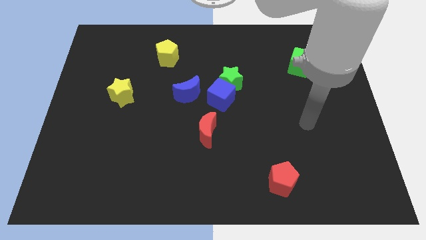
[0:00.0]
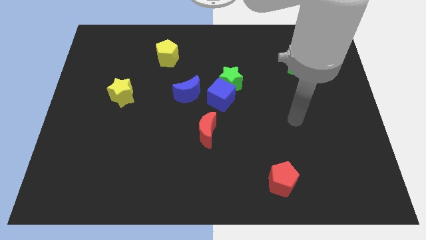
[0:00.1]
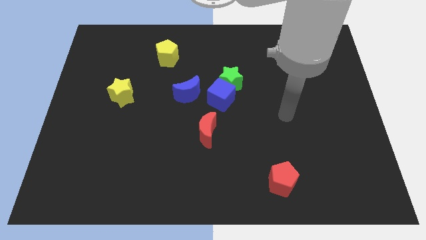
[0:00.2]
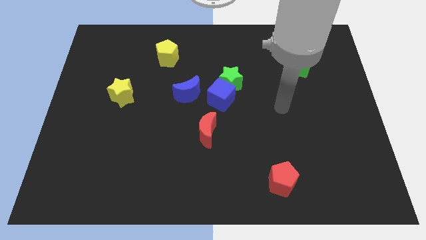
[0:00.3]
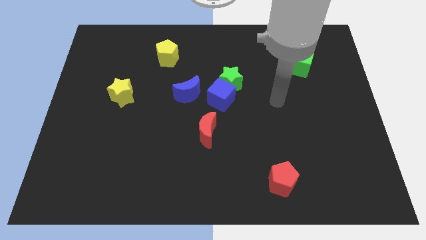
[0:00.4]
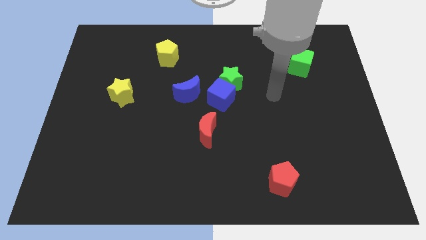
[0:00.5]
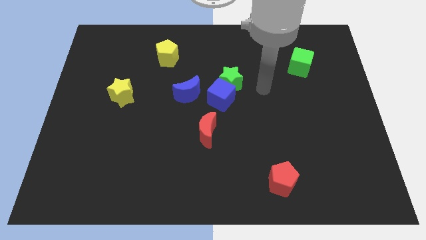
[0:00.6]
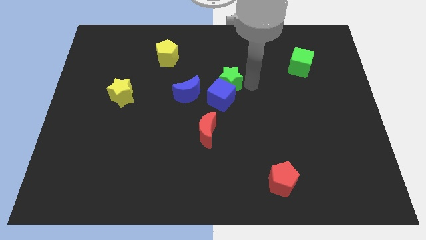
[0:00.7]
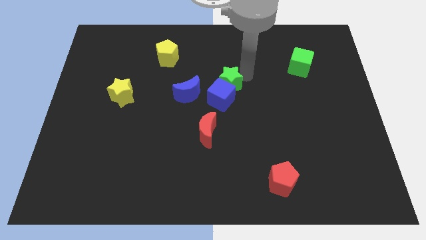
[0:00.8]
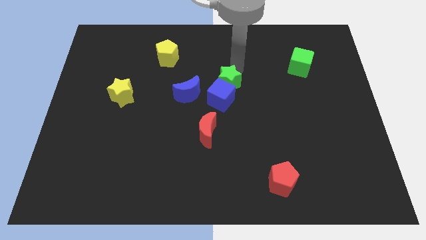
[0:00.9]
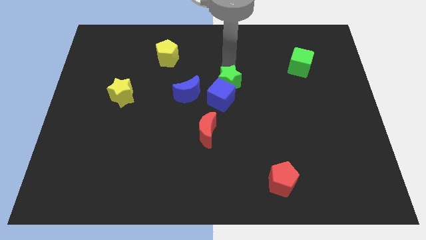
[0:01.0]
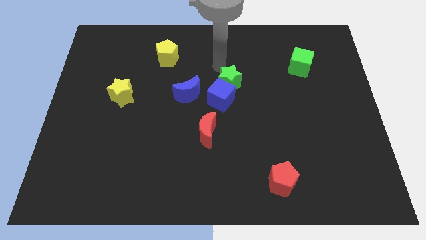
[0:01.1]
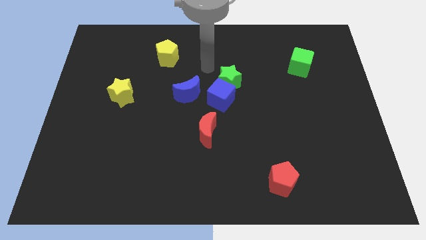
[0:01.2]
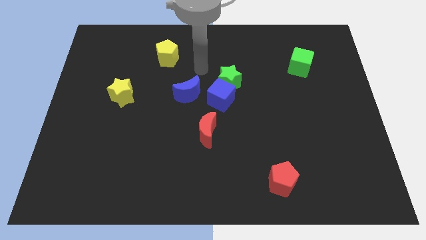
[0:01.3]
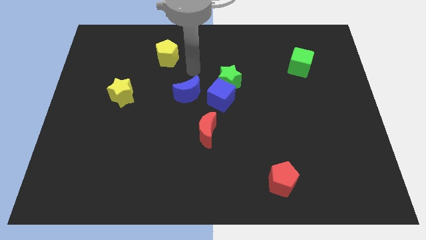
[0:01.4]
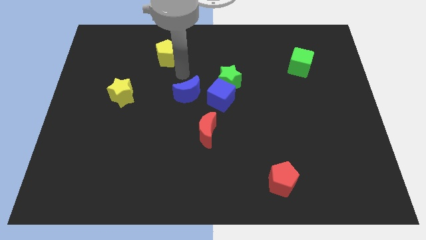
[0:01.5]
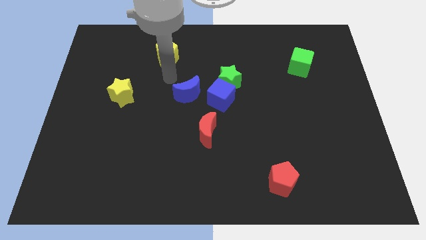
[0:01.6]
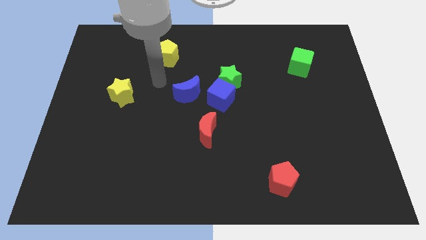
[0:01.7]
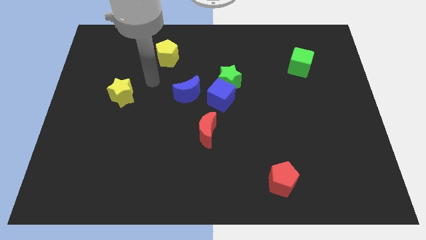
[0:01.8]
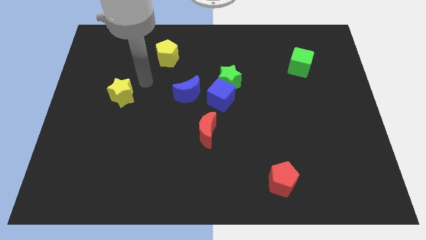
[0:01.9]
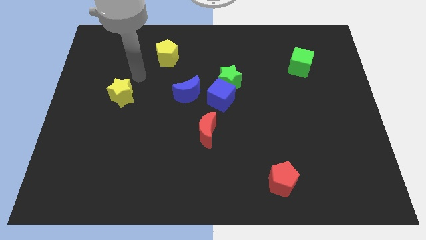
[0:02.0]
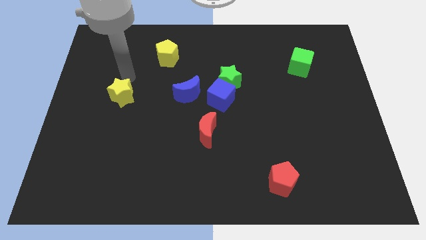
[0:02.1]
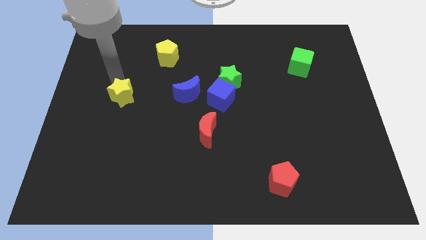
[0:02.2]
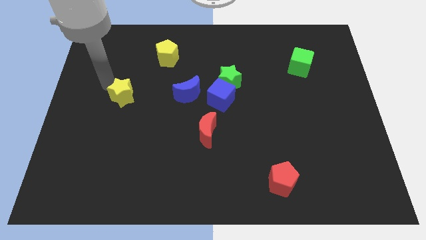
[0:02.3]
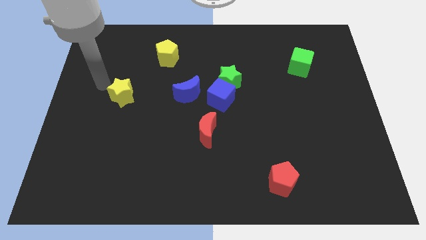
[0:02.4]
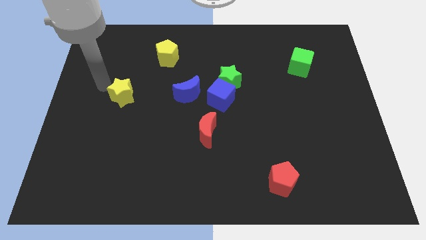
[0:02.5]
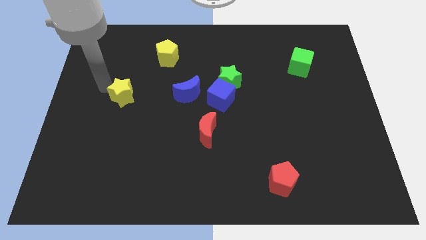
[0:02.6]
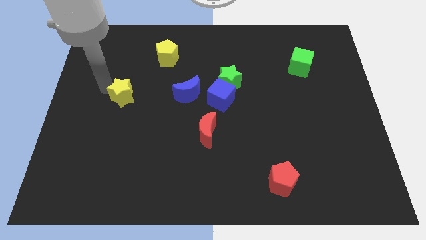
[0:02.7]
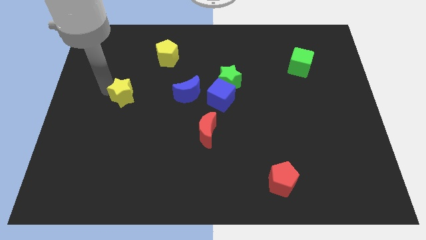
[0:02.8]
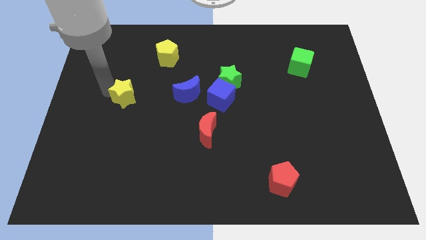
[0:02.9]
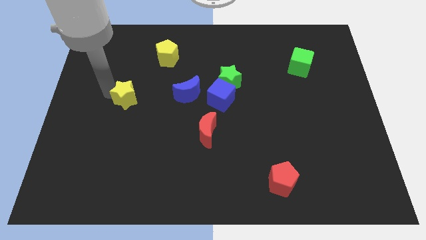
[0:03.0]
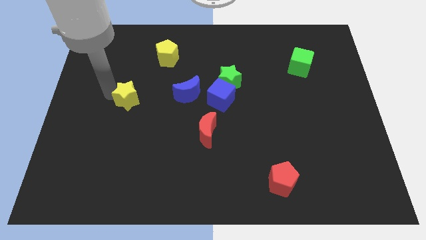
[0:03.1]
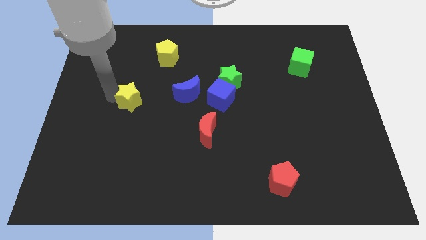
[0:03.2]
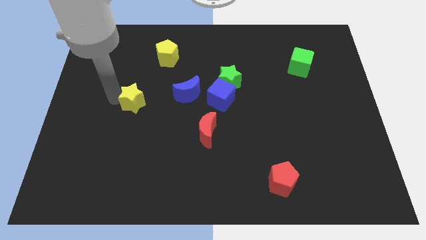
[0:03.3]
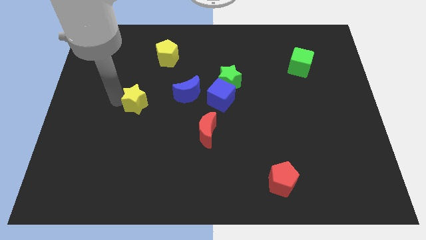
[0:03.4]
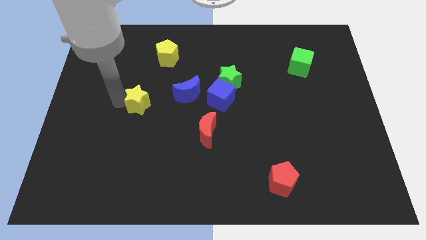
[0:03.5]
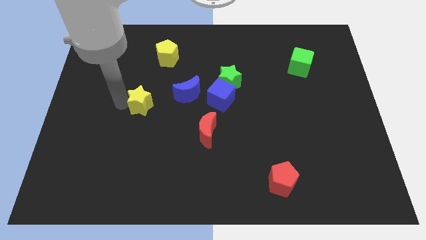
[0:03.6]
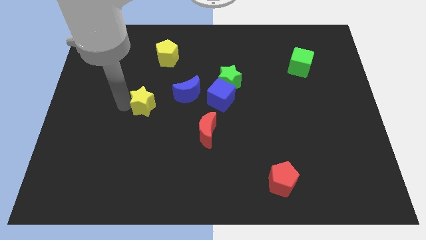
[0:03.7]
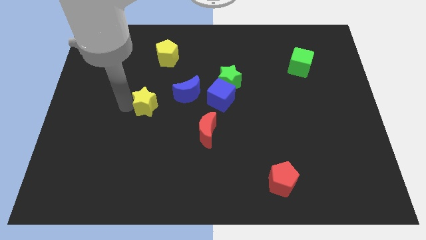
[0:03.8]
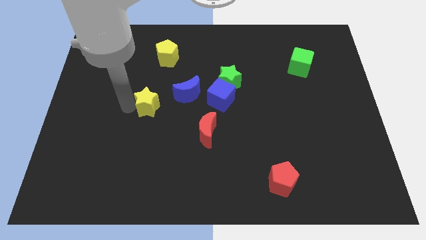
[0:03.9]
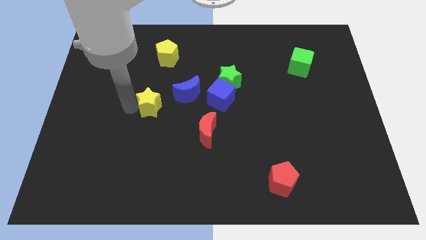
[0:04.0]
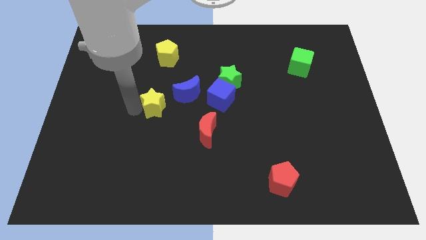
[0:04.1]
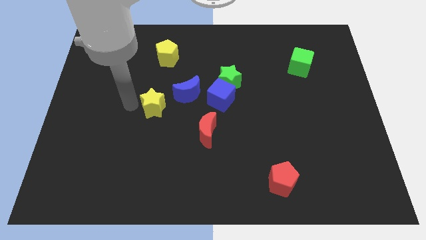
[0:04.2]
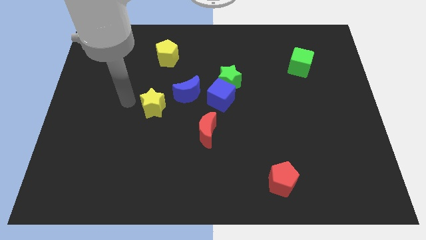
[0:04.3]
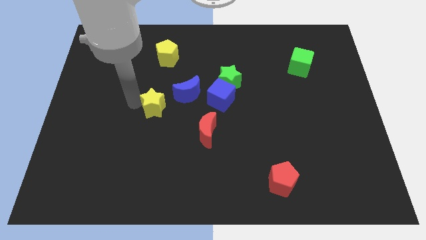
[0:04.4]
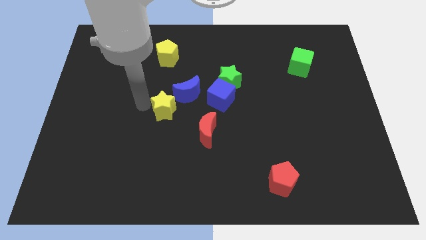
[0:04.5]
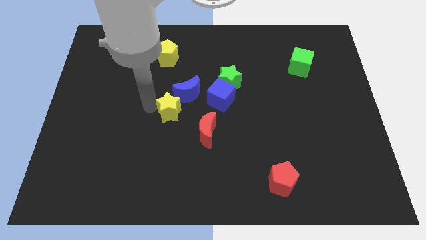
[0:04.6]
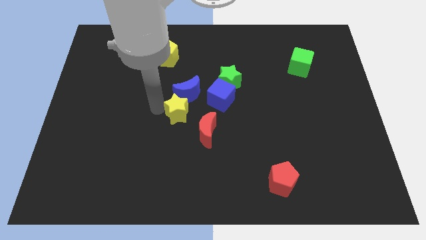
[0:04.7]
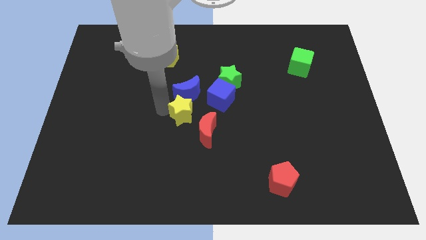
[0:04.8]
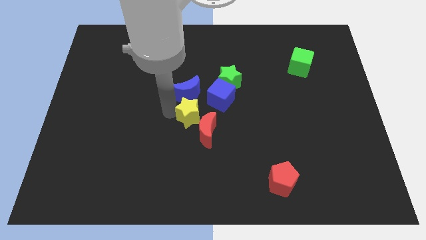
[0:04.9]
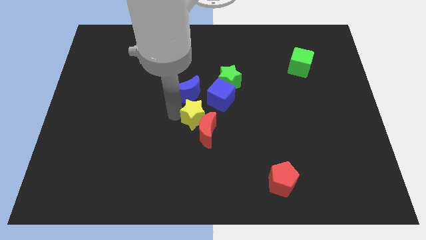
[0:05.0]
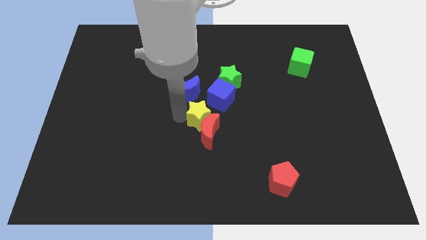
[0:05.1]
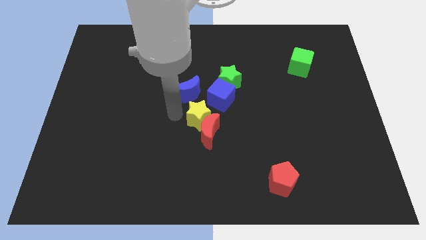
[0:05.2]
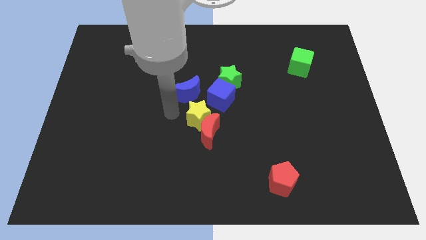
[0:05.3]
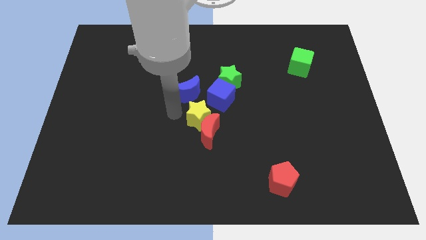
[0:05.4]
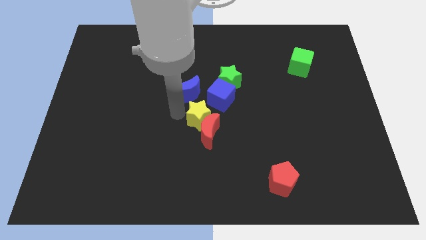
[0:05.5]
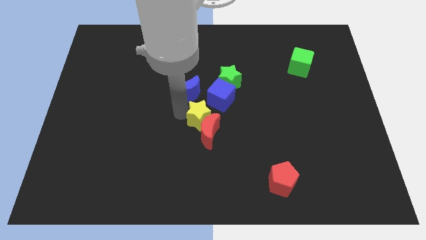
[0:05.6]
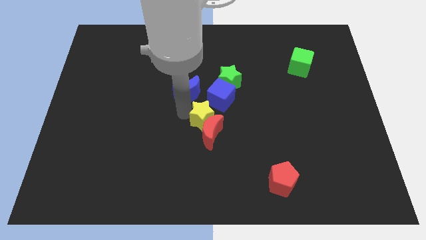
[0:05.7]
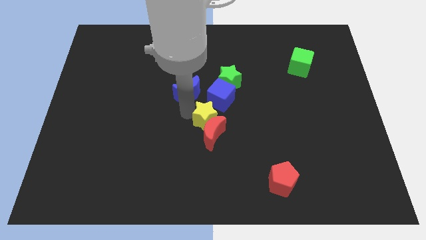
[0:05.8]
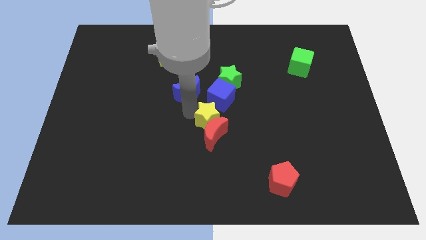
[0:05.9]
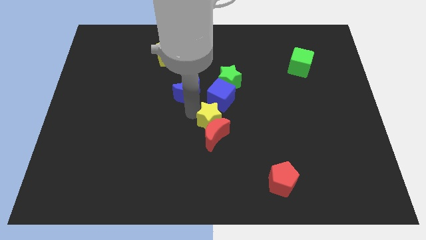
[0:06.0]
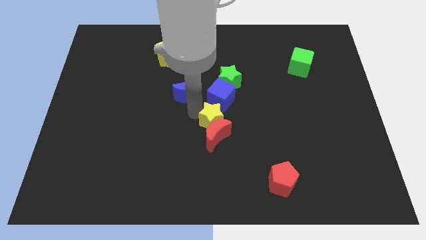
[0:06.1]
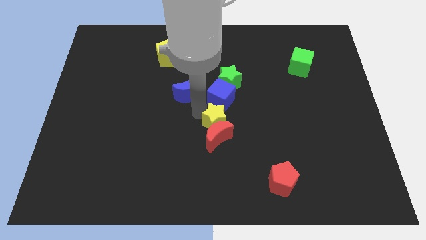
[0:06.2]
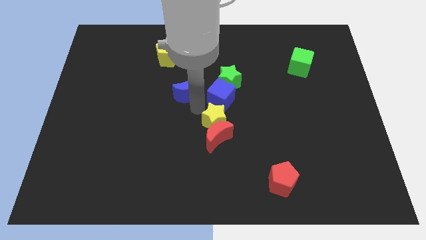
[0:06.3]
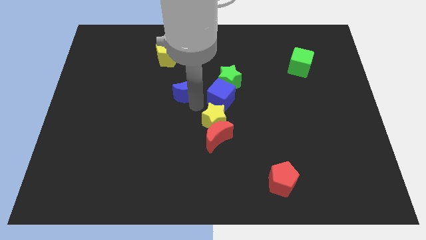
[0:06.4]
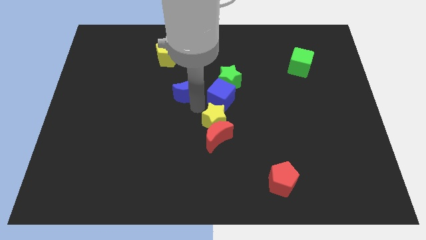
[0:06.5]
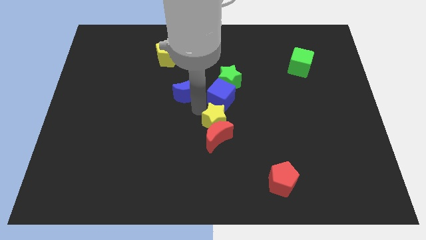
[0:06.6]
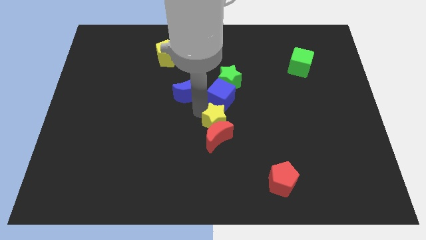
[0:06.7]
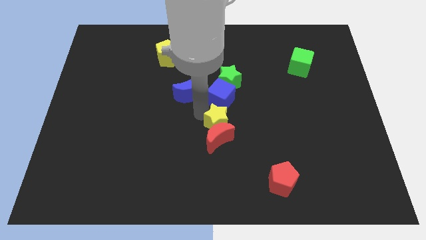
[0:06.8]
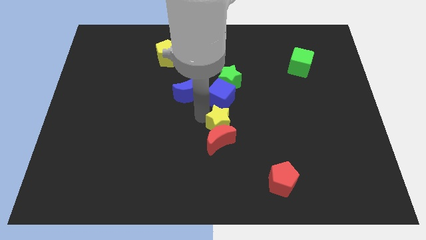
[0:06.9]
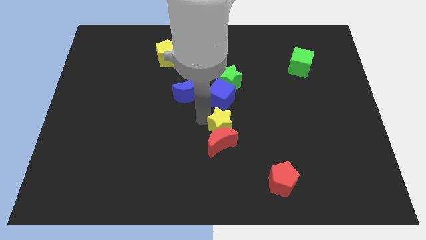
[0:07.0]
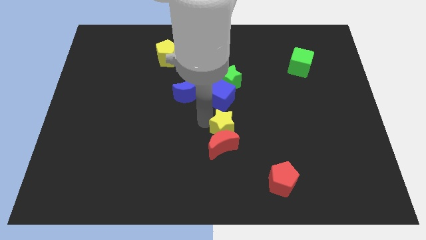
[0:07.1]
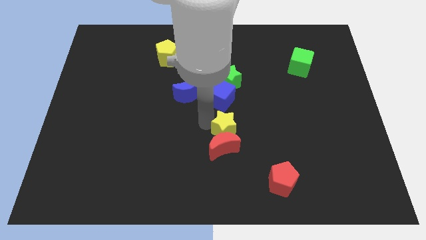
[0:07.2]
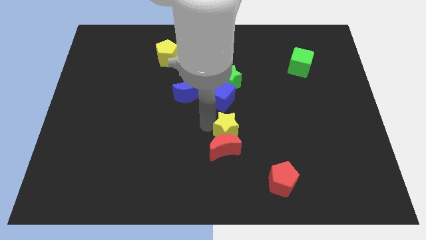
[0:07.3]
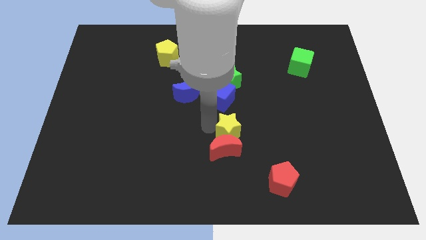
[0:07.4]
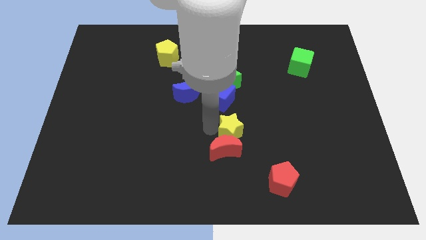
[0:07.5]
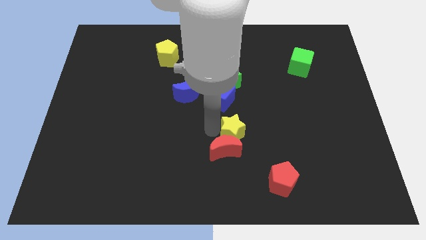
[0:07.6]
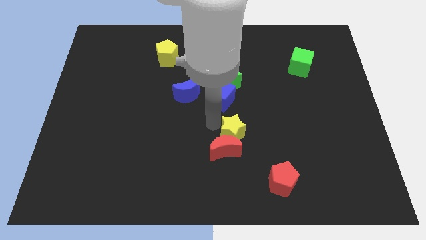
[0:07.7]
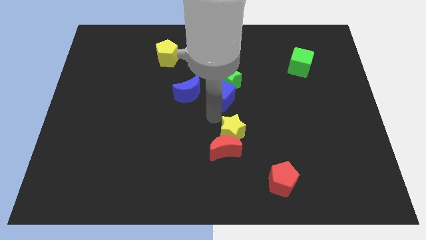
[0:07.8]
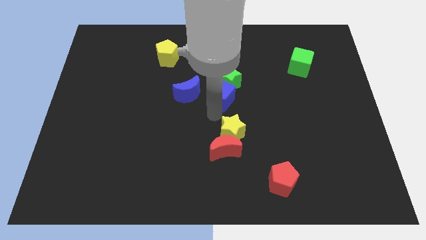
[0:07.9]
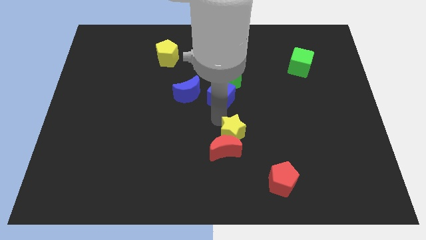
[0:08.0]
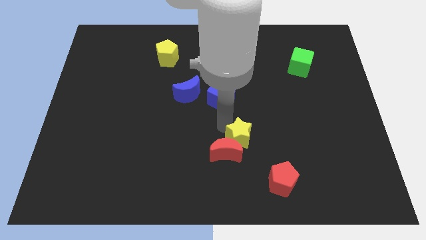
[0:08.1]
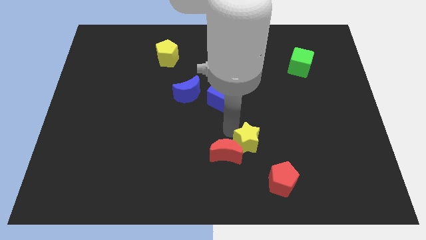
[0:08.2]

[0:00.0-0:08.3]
slide the yellow star to the top left of the red pentagon
